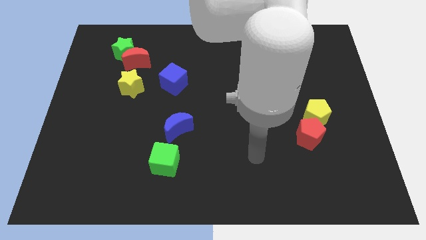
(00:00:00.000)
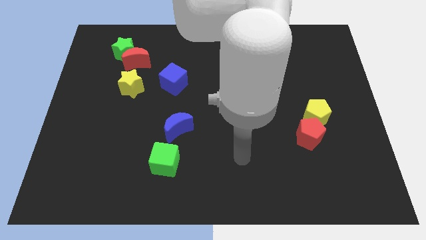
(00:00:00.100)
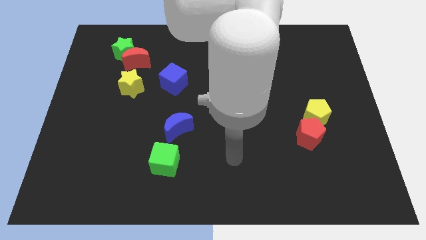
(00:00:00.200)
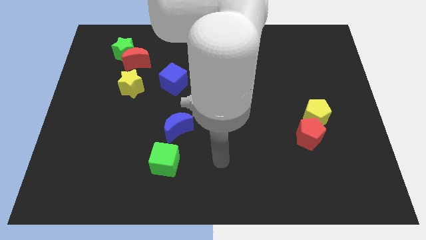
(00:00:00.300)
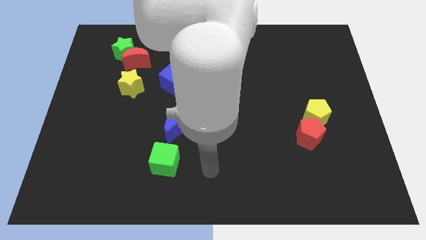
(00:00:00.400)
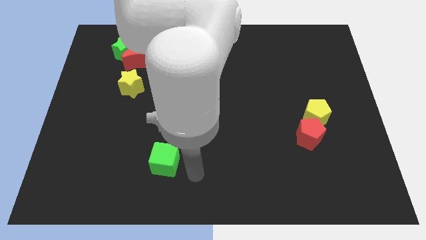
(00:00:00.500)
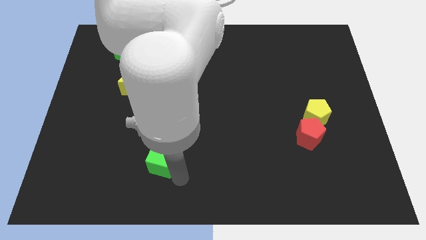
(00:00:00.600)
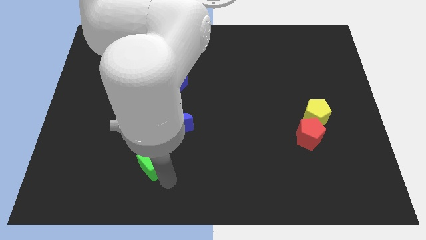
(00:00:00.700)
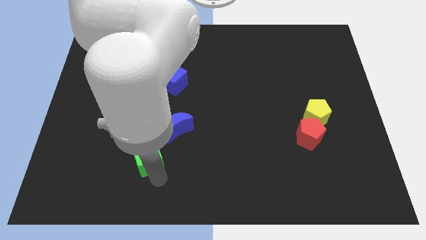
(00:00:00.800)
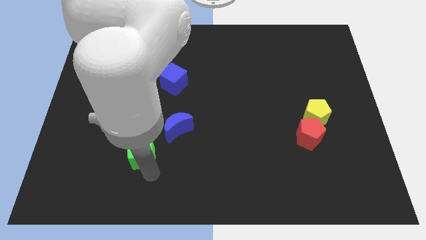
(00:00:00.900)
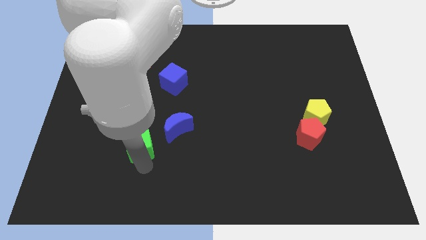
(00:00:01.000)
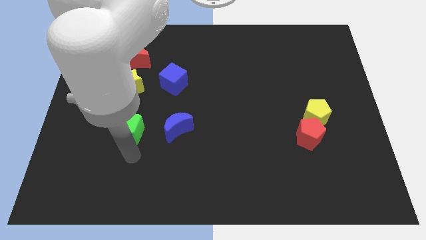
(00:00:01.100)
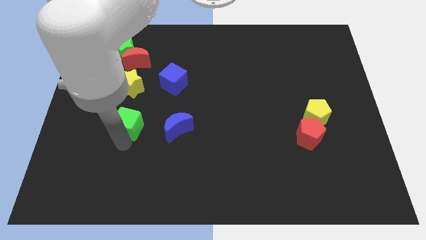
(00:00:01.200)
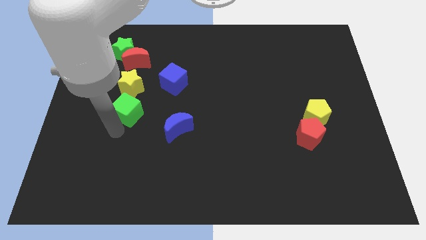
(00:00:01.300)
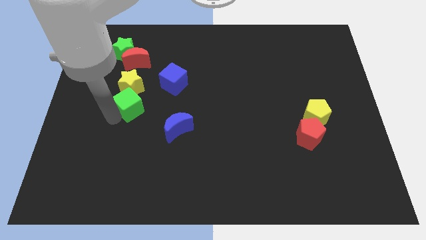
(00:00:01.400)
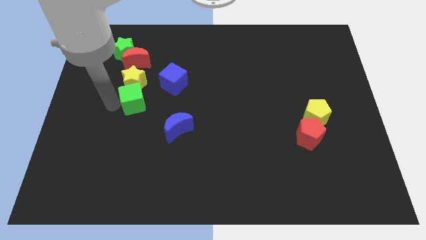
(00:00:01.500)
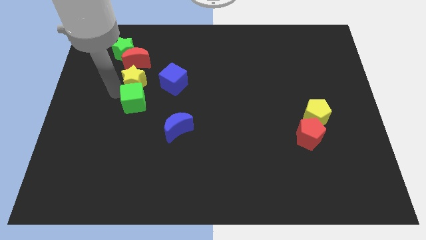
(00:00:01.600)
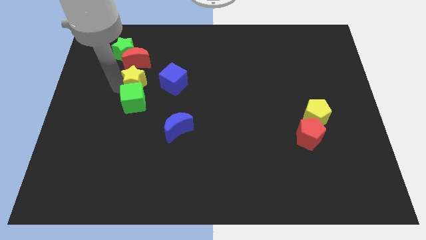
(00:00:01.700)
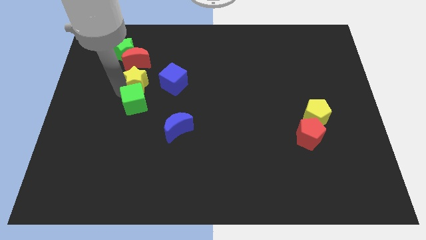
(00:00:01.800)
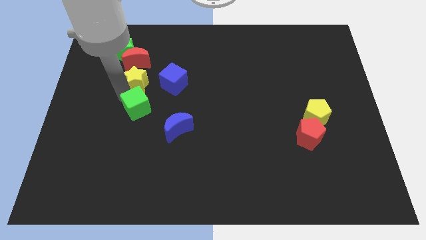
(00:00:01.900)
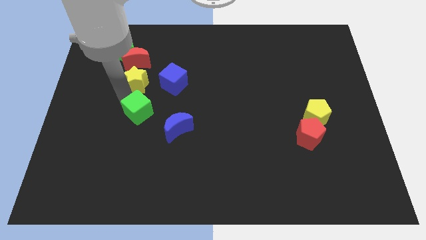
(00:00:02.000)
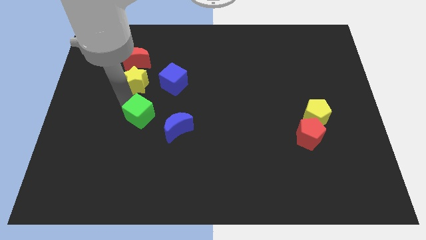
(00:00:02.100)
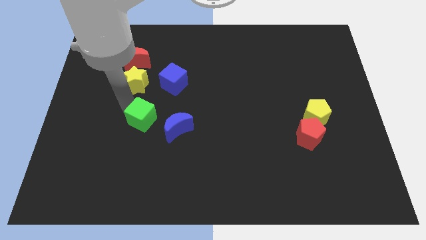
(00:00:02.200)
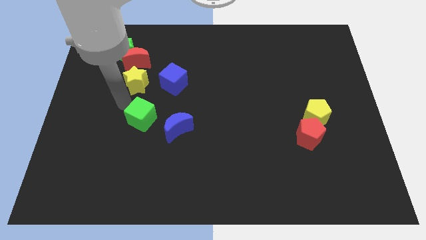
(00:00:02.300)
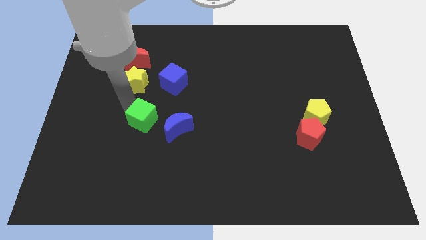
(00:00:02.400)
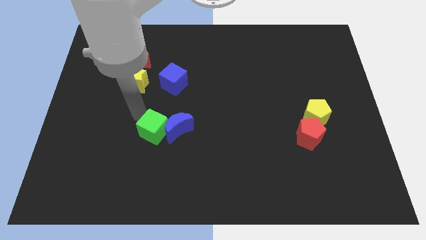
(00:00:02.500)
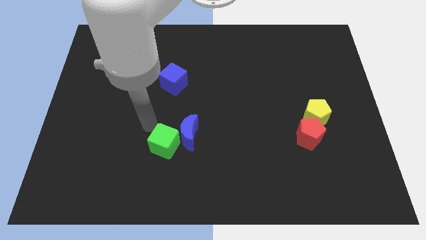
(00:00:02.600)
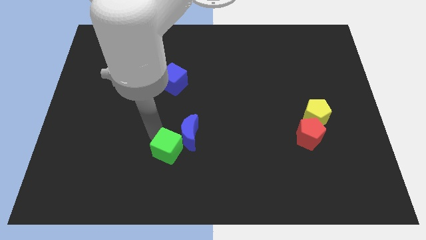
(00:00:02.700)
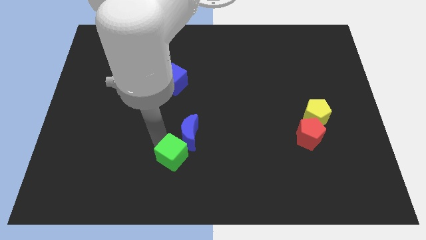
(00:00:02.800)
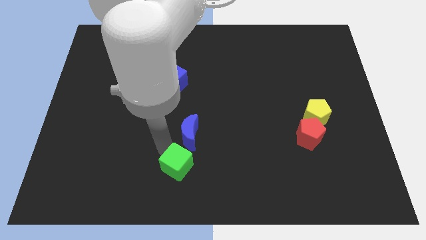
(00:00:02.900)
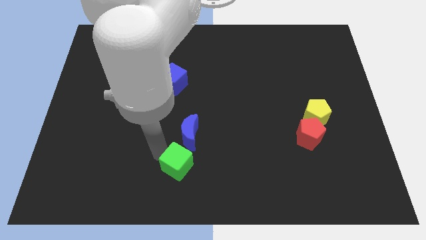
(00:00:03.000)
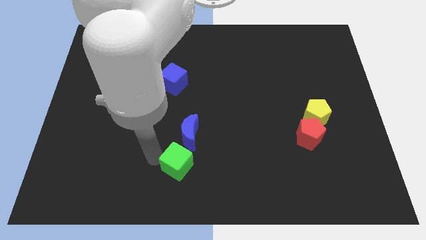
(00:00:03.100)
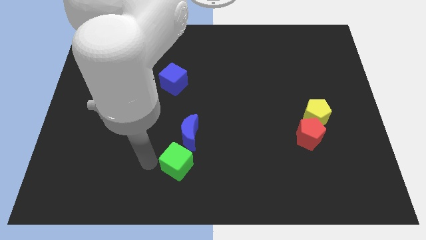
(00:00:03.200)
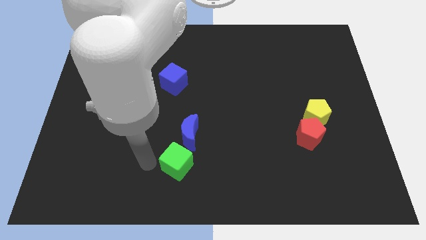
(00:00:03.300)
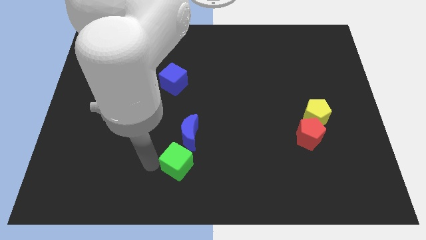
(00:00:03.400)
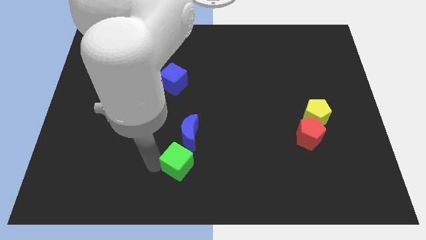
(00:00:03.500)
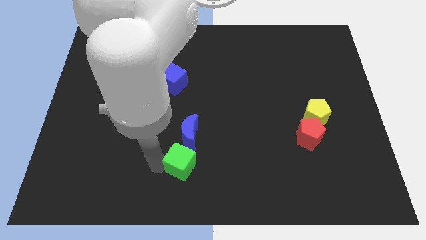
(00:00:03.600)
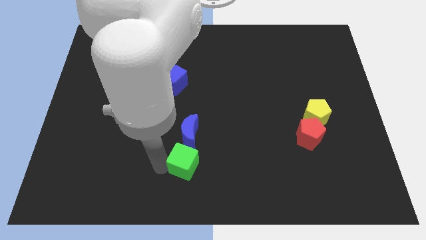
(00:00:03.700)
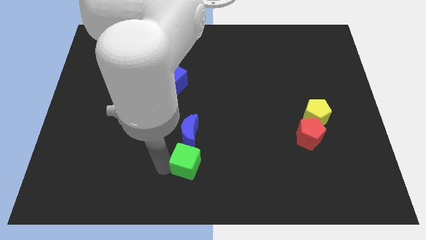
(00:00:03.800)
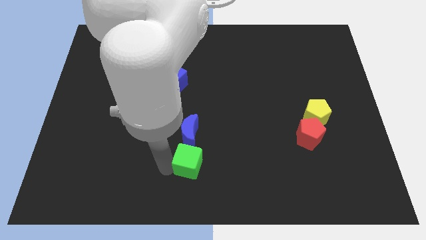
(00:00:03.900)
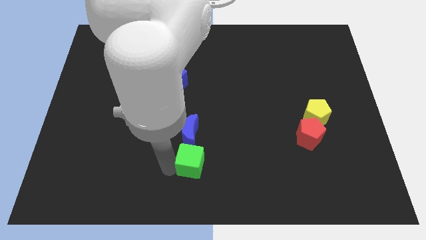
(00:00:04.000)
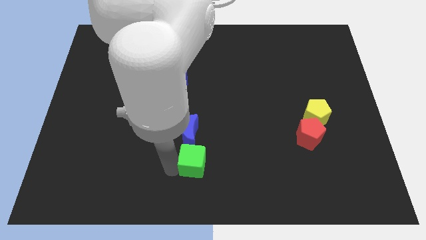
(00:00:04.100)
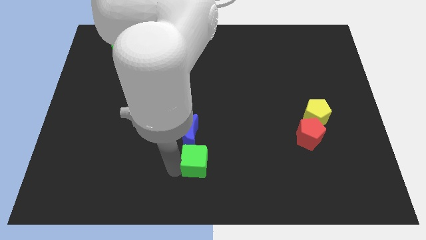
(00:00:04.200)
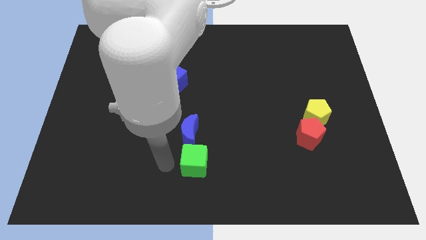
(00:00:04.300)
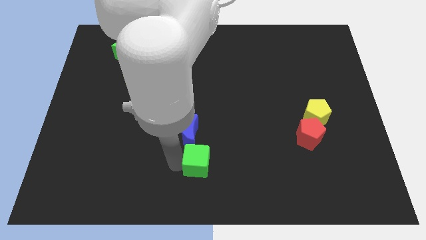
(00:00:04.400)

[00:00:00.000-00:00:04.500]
slide the green cube somewhat right

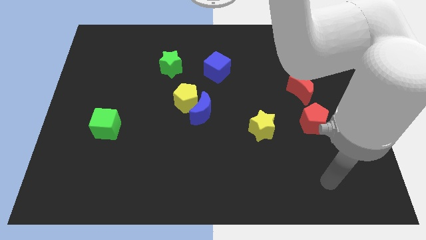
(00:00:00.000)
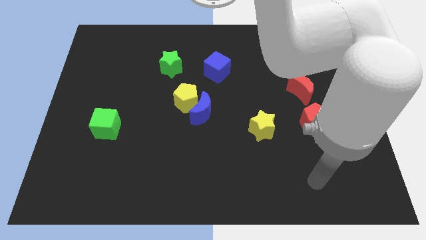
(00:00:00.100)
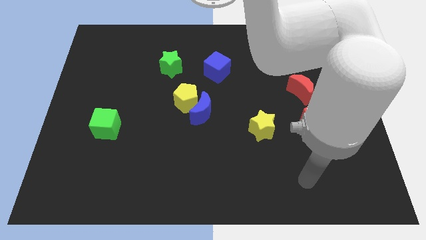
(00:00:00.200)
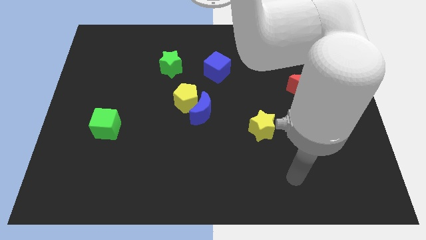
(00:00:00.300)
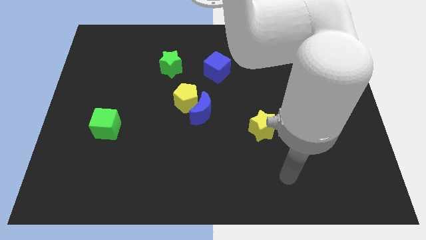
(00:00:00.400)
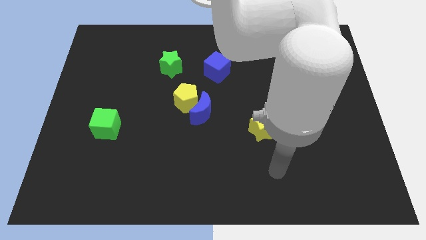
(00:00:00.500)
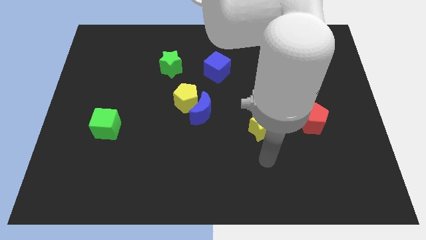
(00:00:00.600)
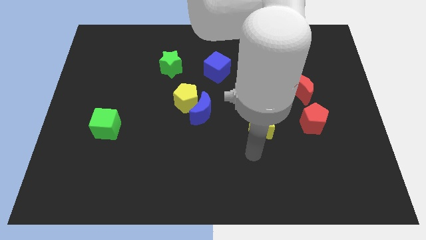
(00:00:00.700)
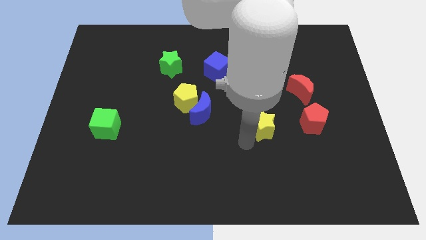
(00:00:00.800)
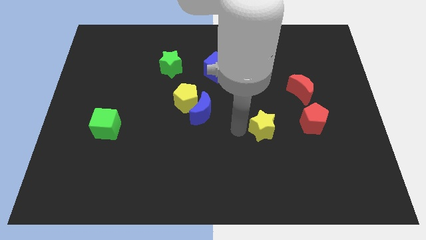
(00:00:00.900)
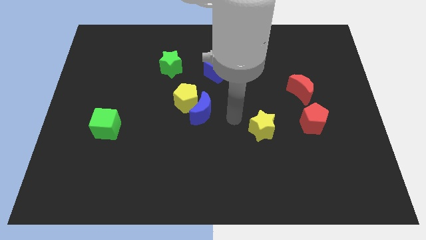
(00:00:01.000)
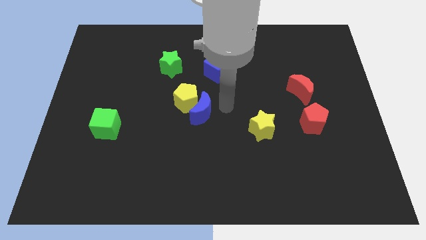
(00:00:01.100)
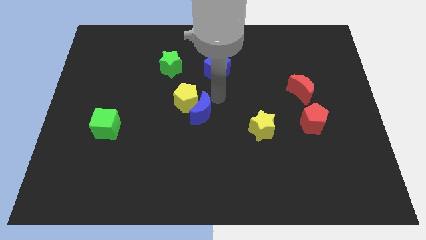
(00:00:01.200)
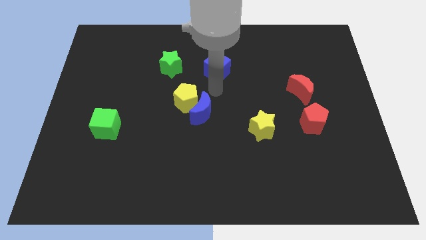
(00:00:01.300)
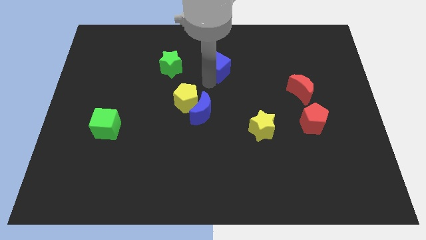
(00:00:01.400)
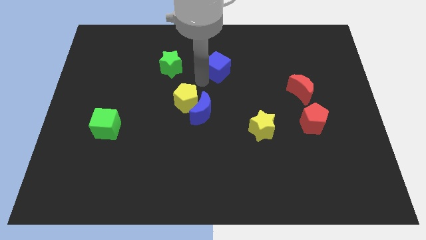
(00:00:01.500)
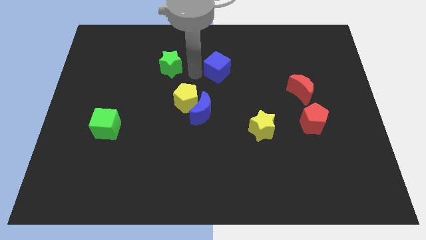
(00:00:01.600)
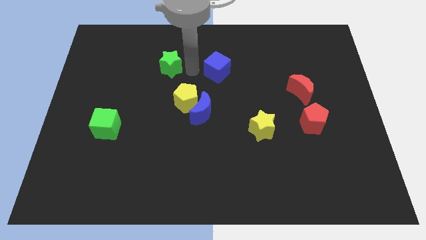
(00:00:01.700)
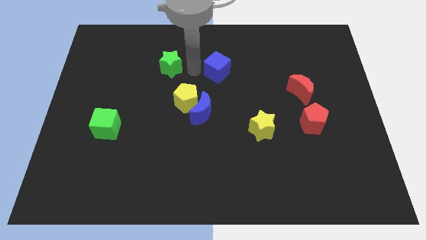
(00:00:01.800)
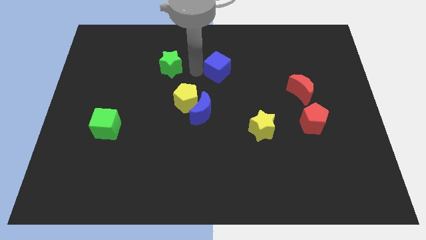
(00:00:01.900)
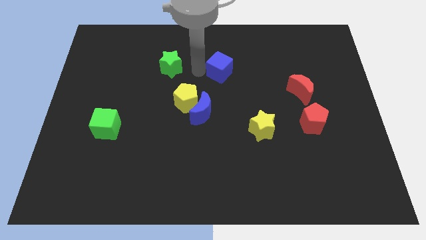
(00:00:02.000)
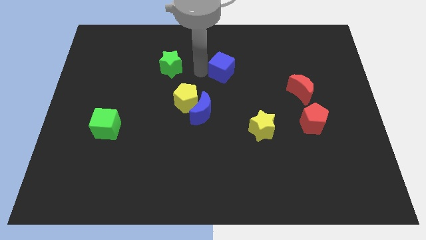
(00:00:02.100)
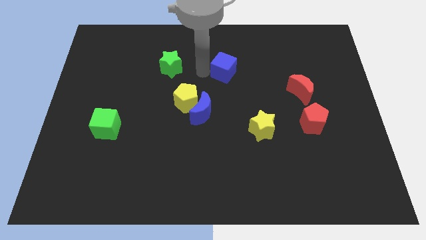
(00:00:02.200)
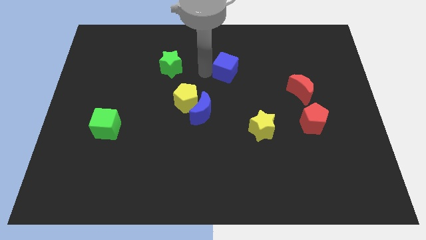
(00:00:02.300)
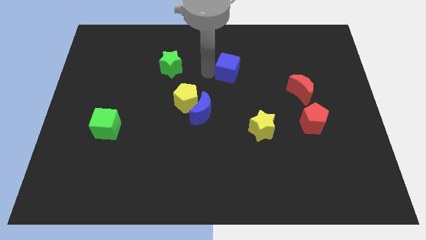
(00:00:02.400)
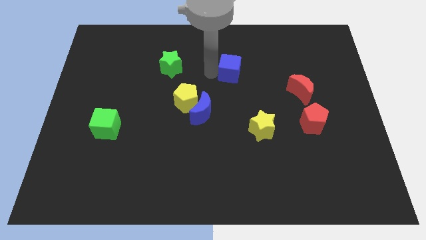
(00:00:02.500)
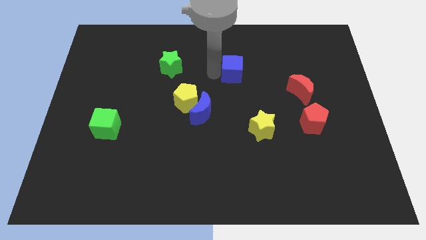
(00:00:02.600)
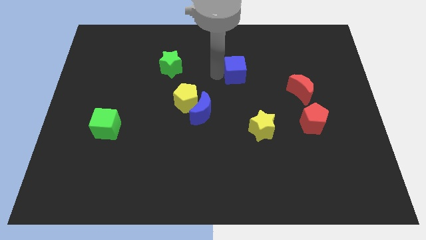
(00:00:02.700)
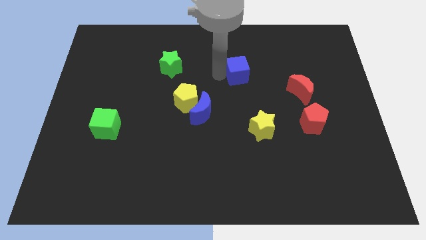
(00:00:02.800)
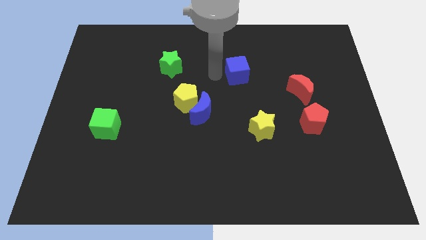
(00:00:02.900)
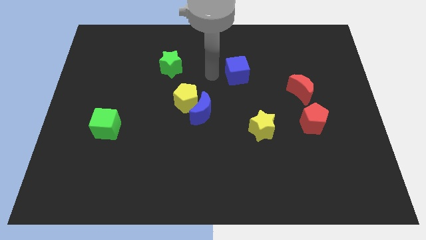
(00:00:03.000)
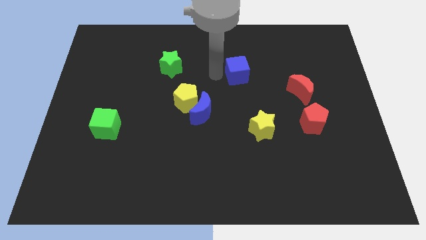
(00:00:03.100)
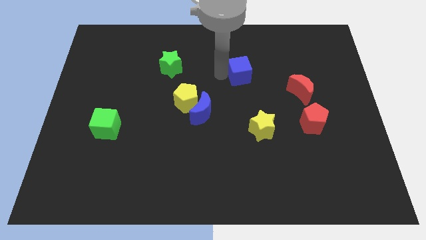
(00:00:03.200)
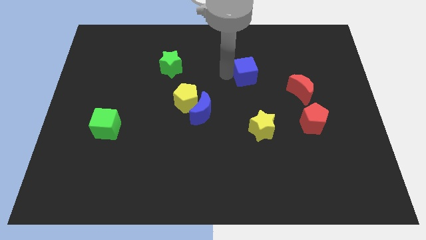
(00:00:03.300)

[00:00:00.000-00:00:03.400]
move the blue cube a bit right
